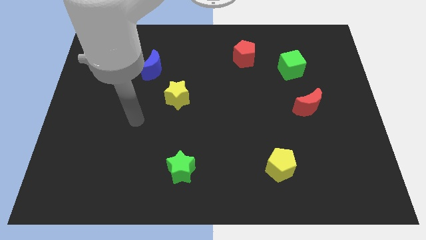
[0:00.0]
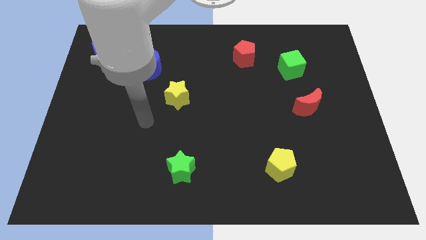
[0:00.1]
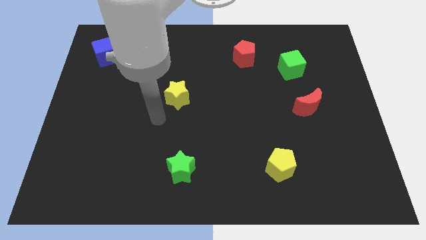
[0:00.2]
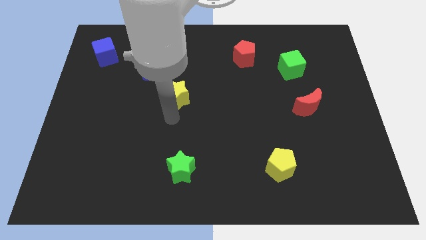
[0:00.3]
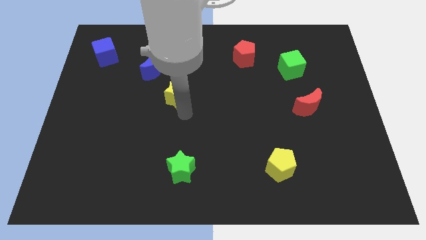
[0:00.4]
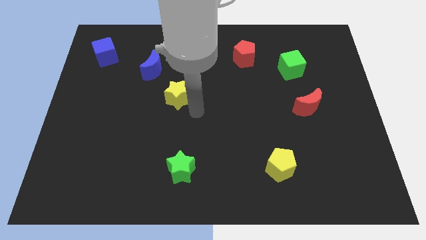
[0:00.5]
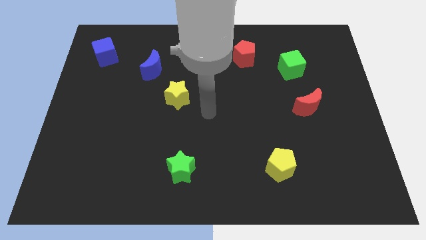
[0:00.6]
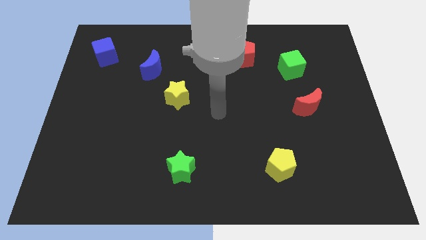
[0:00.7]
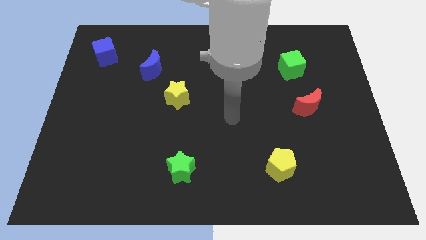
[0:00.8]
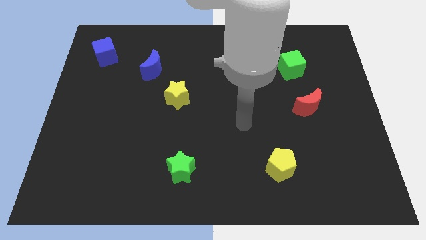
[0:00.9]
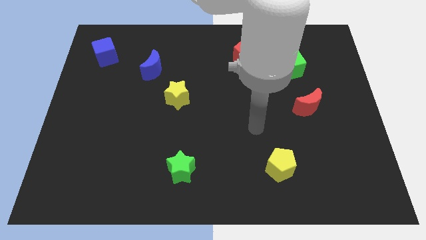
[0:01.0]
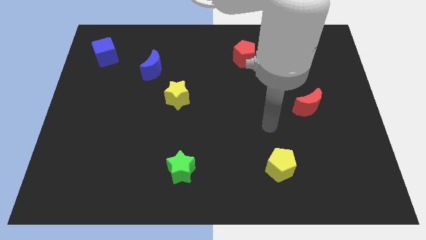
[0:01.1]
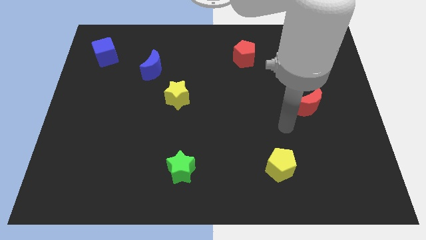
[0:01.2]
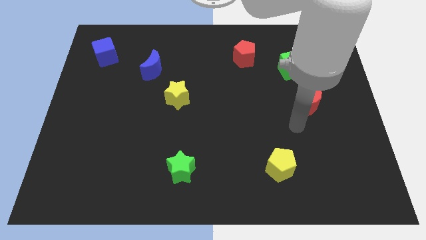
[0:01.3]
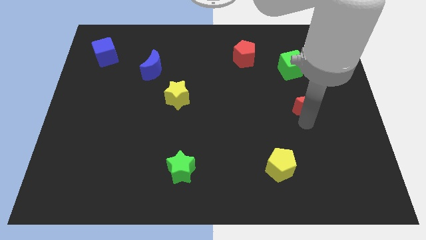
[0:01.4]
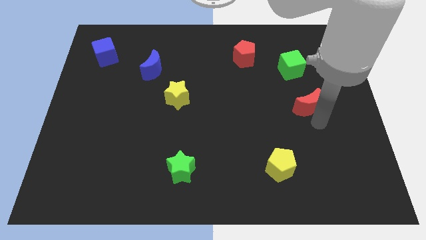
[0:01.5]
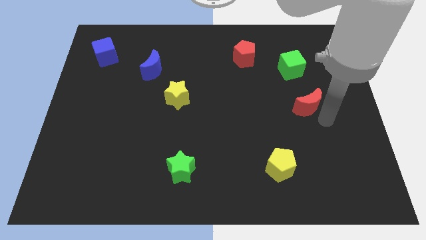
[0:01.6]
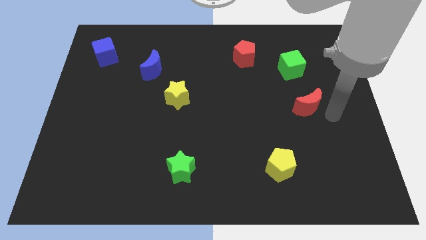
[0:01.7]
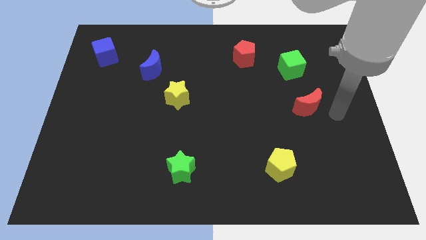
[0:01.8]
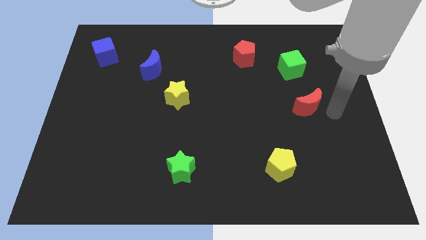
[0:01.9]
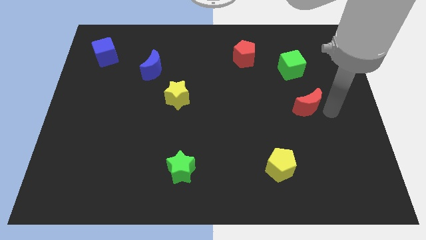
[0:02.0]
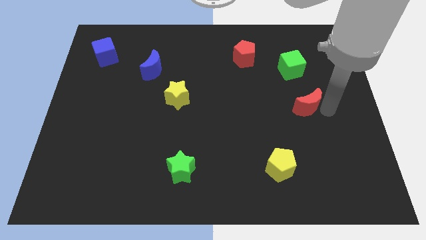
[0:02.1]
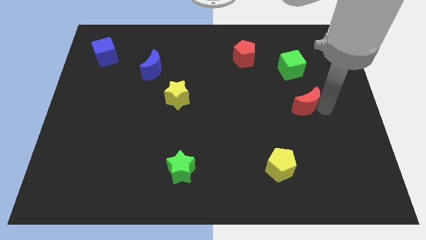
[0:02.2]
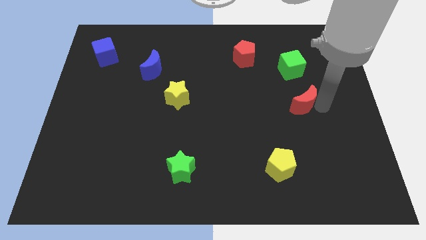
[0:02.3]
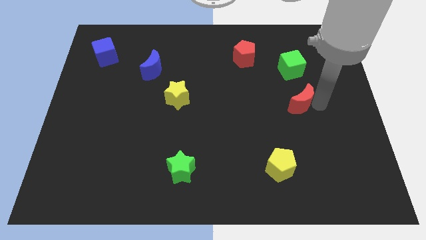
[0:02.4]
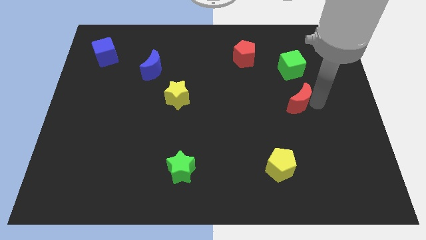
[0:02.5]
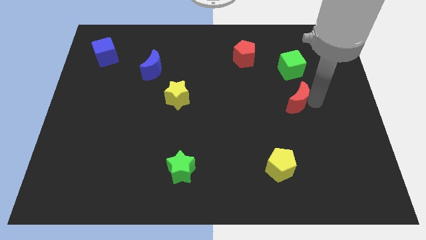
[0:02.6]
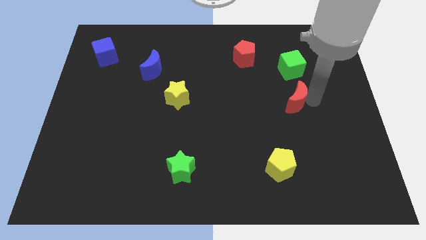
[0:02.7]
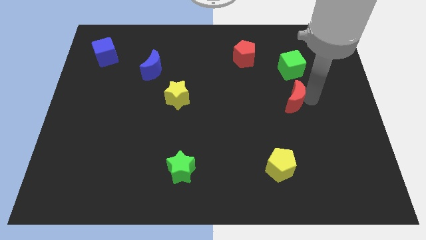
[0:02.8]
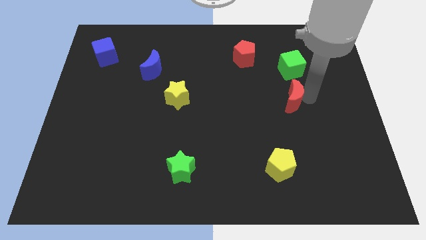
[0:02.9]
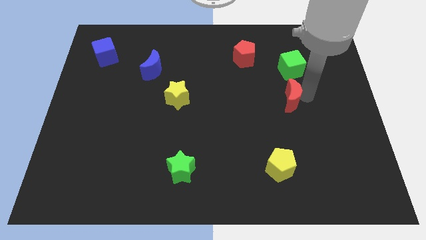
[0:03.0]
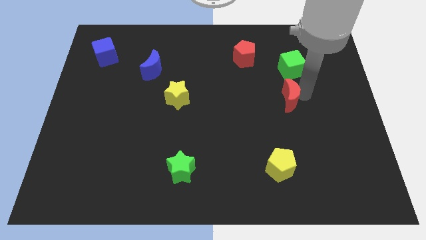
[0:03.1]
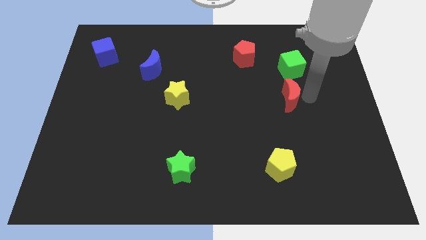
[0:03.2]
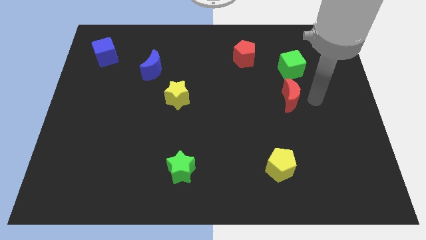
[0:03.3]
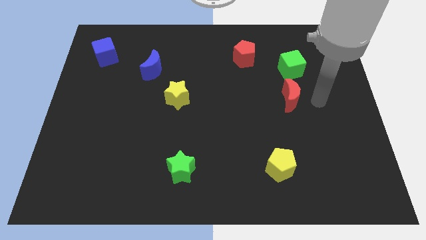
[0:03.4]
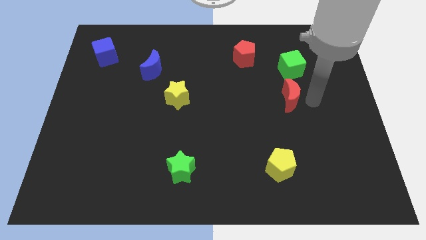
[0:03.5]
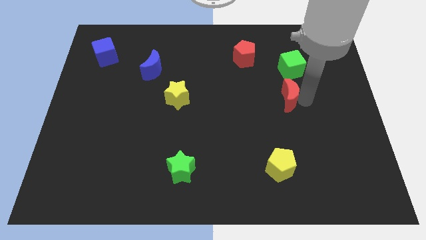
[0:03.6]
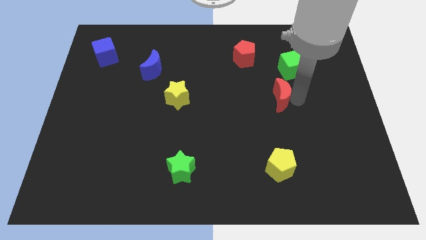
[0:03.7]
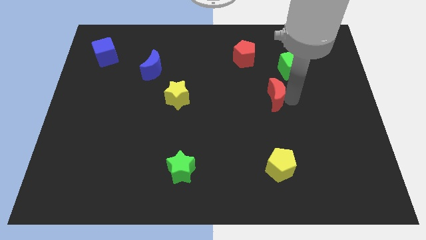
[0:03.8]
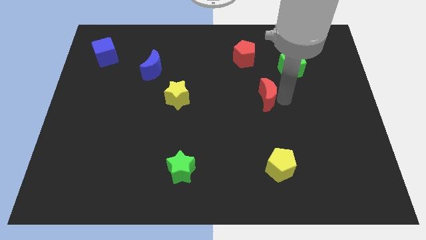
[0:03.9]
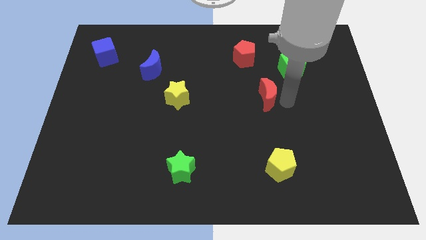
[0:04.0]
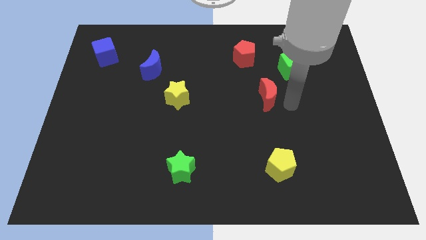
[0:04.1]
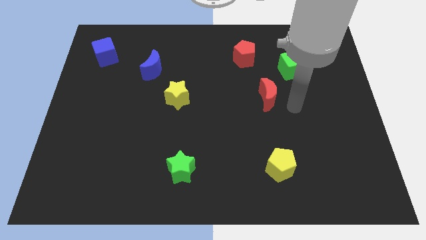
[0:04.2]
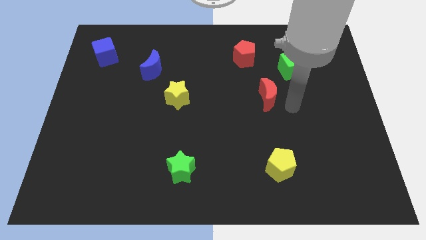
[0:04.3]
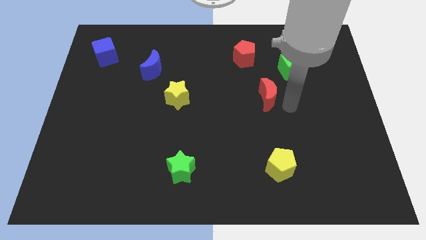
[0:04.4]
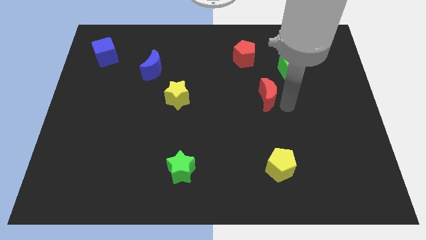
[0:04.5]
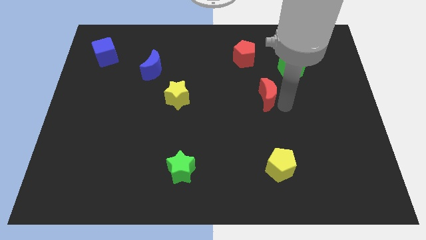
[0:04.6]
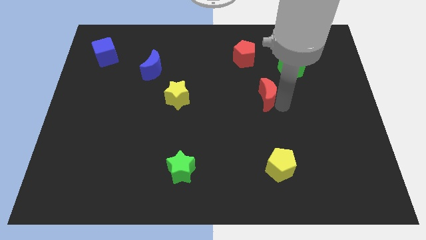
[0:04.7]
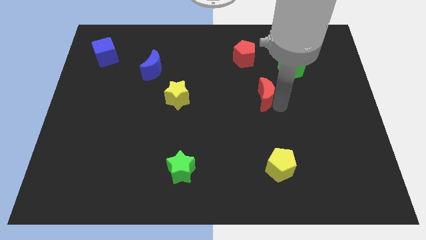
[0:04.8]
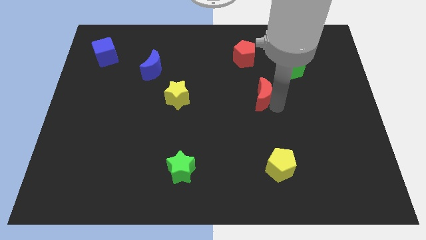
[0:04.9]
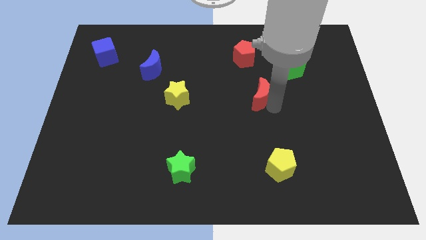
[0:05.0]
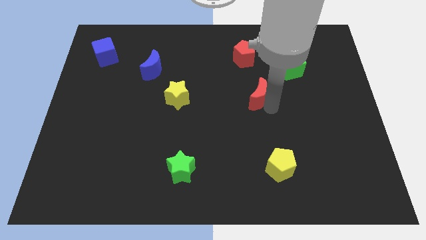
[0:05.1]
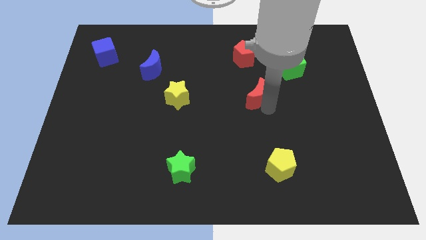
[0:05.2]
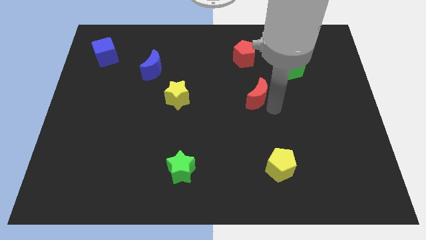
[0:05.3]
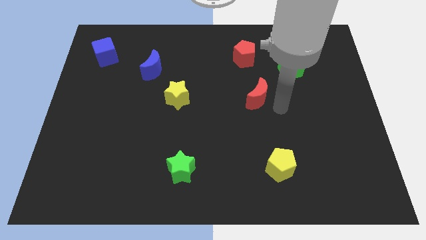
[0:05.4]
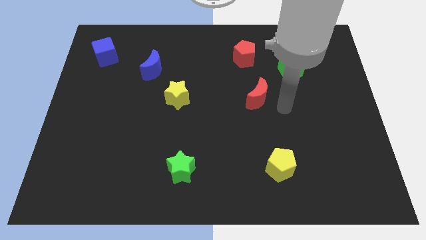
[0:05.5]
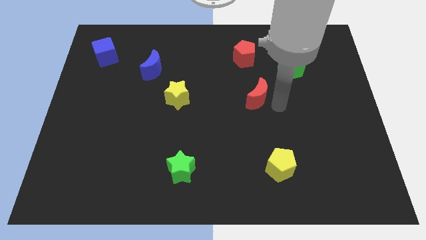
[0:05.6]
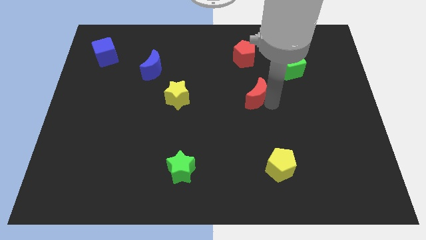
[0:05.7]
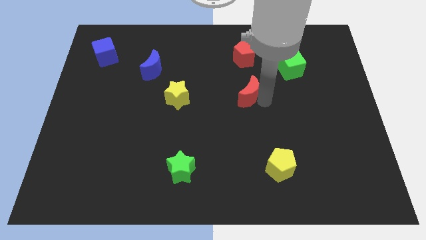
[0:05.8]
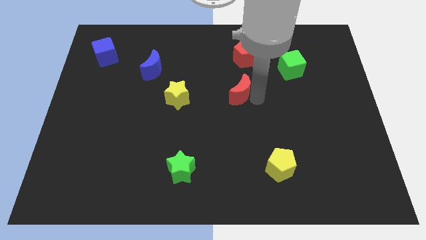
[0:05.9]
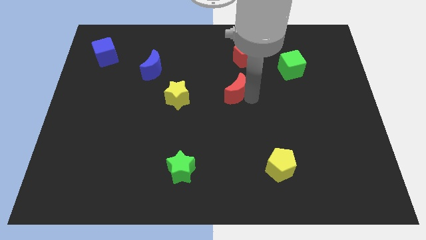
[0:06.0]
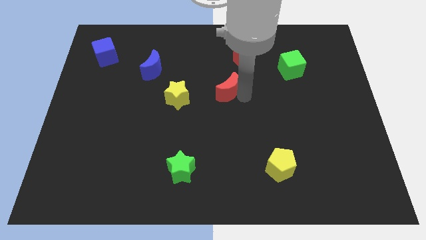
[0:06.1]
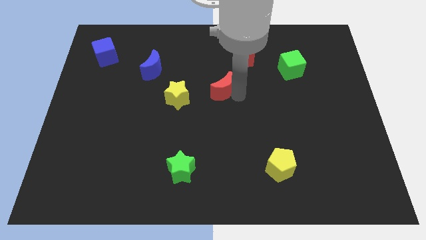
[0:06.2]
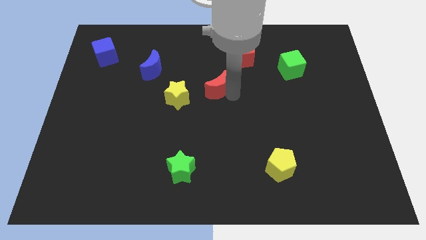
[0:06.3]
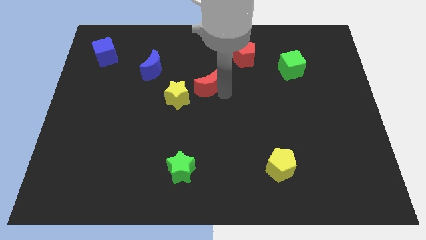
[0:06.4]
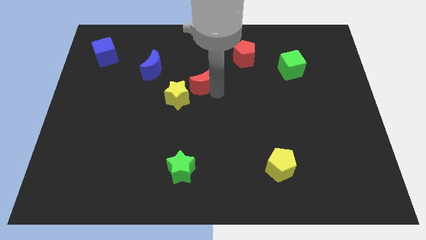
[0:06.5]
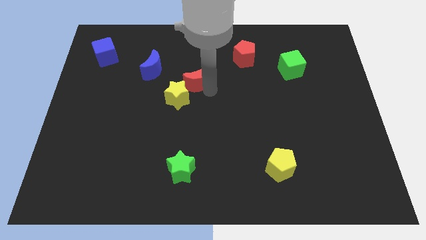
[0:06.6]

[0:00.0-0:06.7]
push the red moon to the right of the blue moon

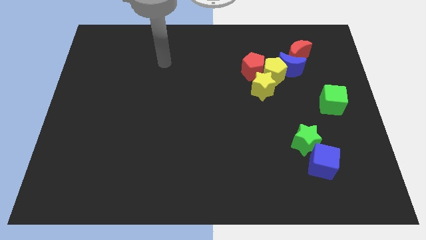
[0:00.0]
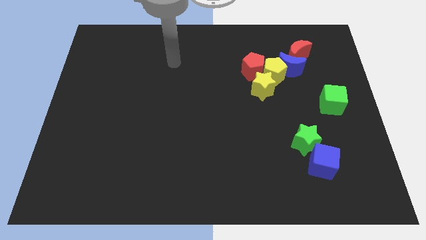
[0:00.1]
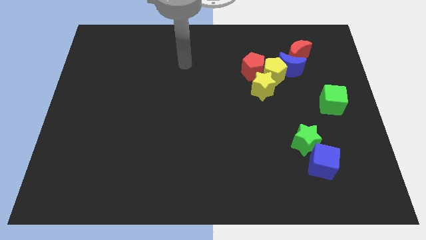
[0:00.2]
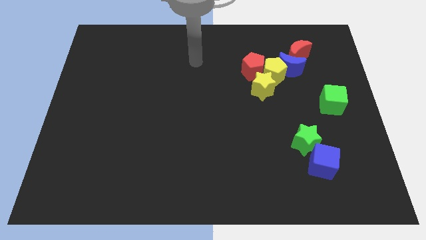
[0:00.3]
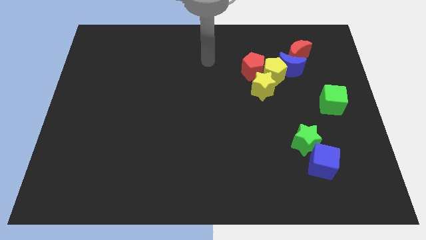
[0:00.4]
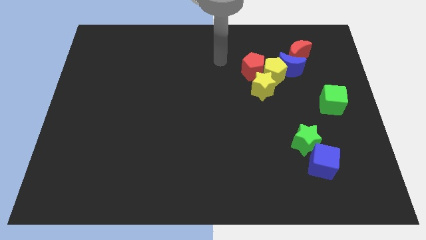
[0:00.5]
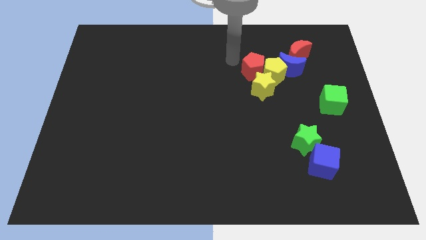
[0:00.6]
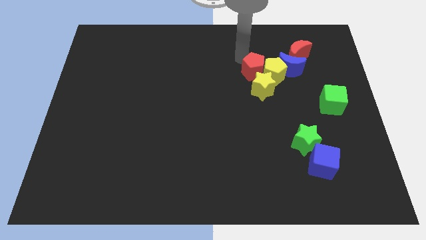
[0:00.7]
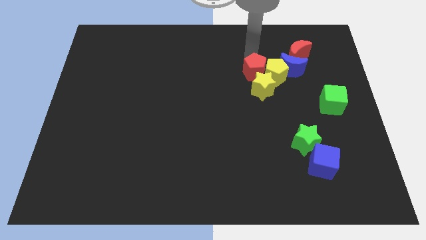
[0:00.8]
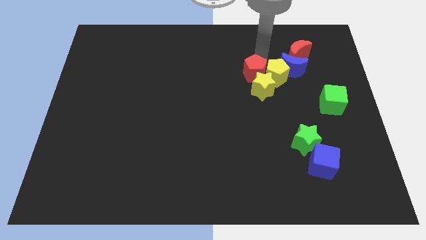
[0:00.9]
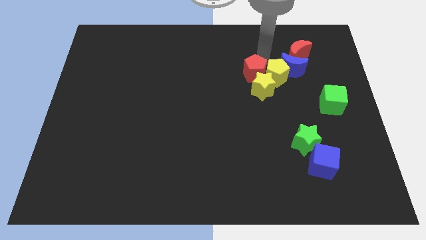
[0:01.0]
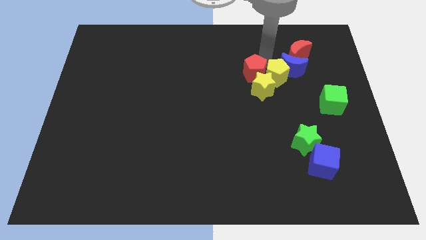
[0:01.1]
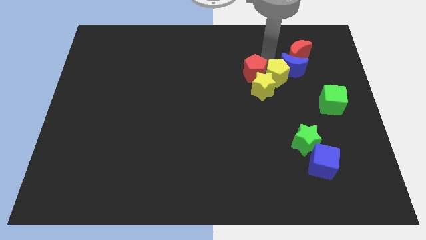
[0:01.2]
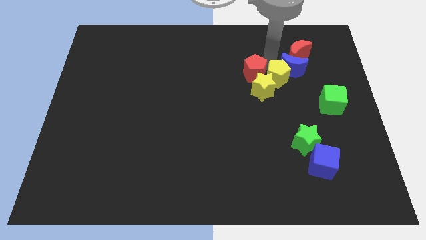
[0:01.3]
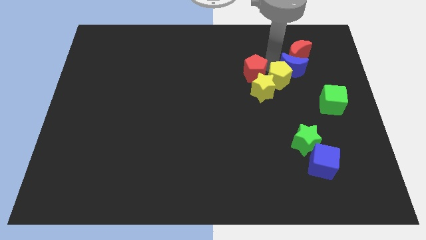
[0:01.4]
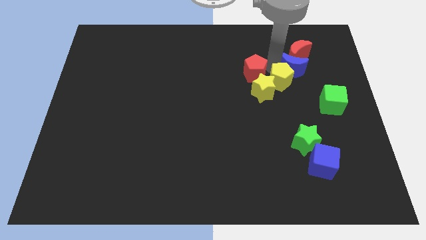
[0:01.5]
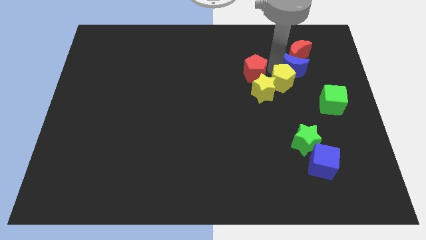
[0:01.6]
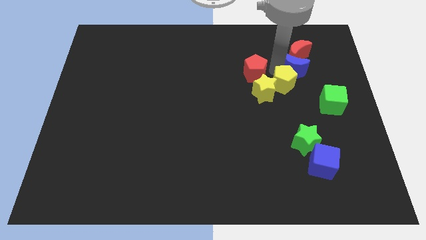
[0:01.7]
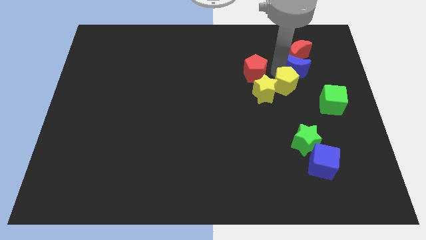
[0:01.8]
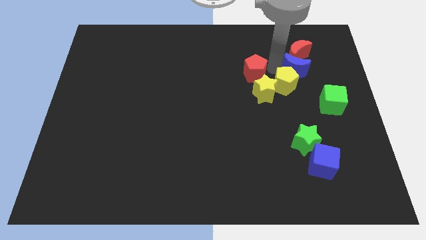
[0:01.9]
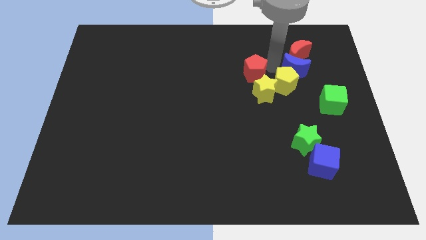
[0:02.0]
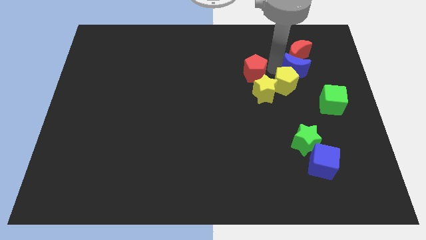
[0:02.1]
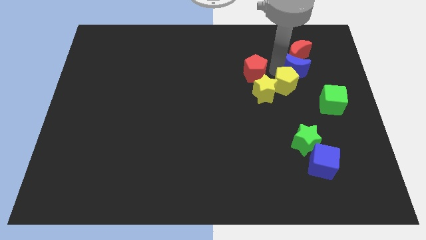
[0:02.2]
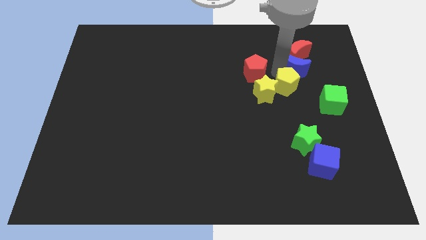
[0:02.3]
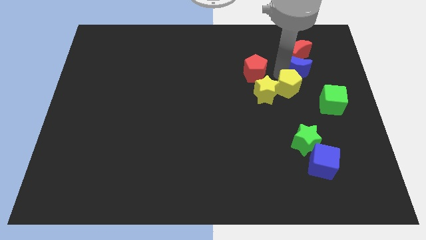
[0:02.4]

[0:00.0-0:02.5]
move the yellow pentagon to the top side of the green star
